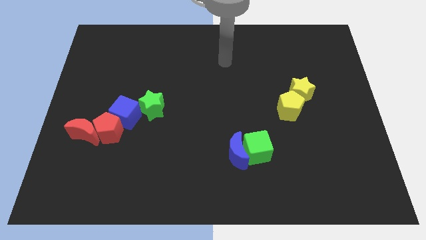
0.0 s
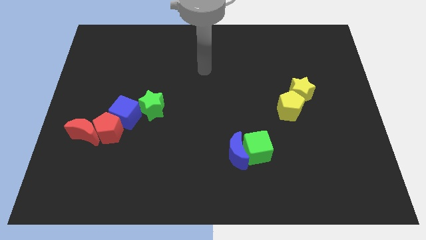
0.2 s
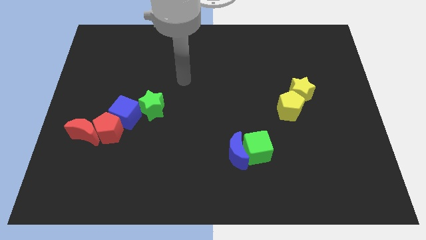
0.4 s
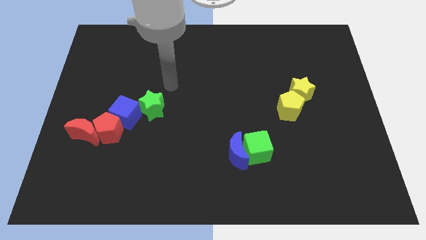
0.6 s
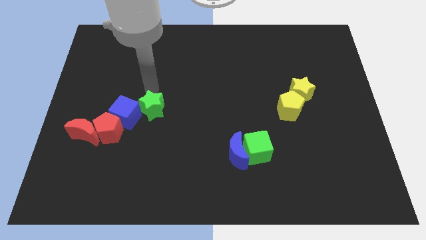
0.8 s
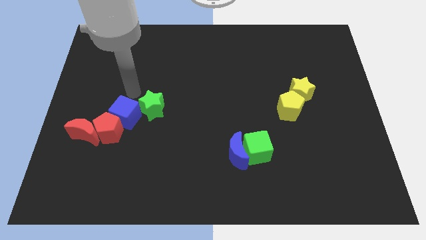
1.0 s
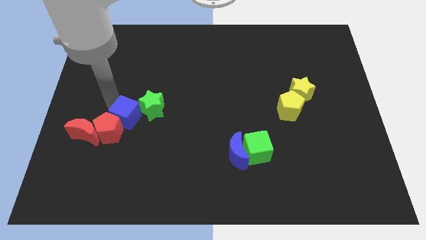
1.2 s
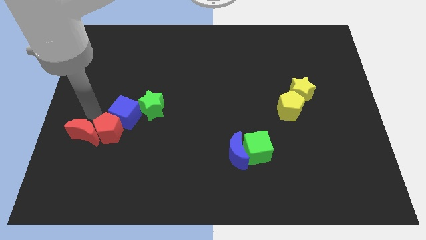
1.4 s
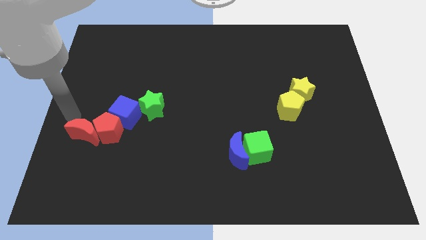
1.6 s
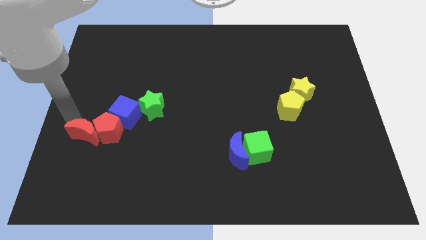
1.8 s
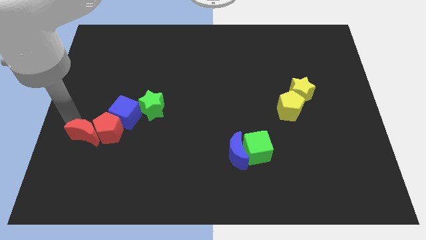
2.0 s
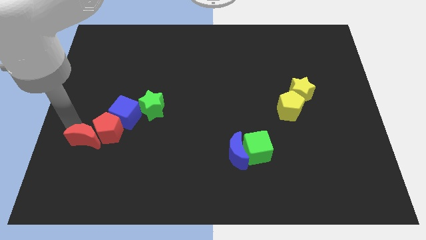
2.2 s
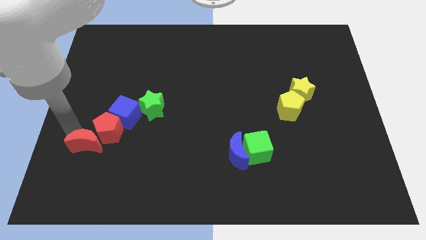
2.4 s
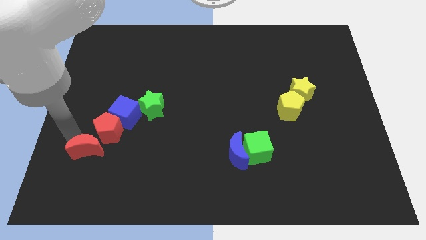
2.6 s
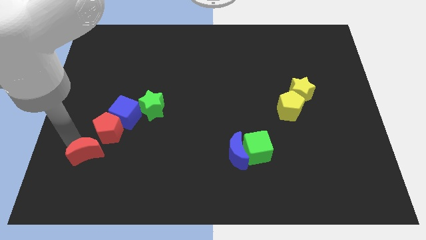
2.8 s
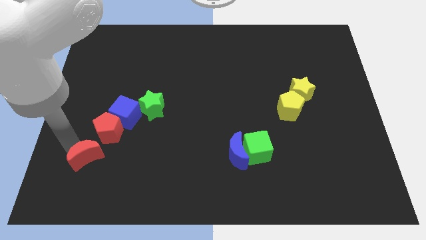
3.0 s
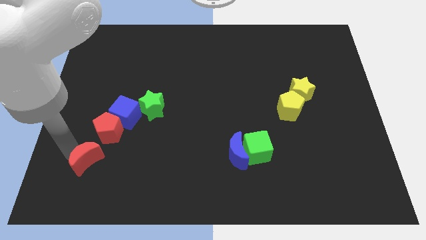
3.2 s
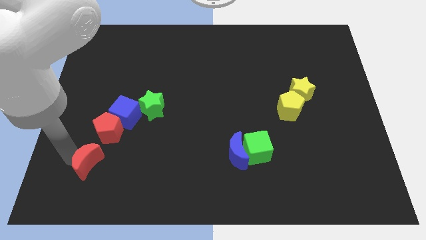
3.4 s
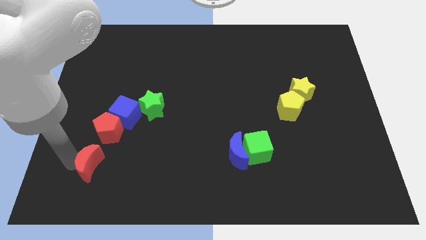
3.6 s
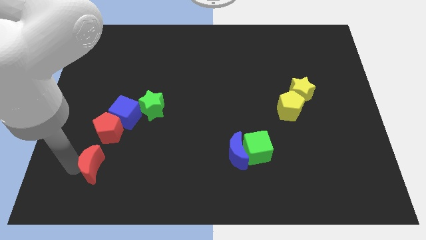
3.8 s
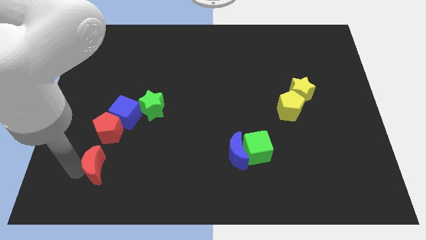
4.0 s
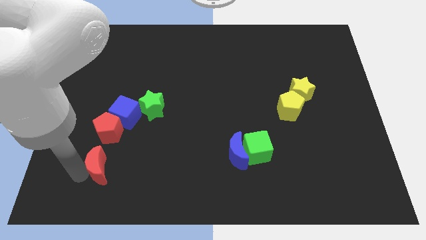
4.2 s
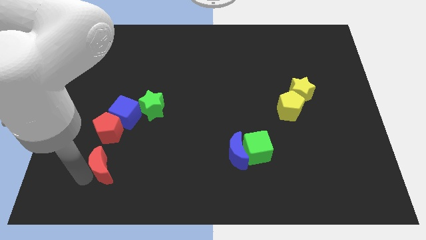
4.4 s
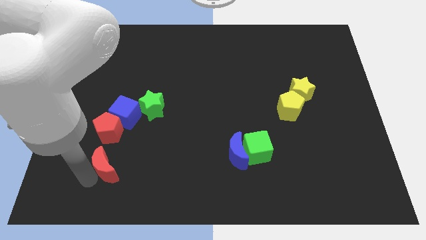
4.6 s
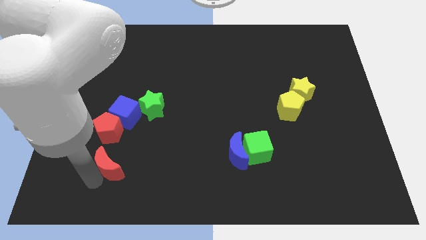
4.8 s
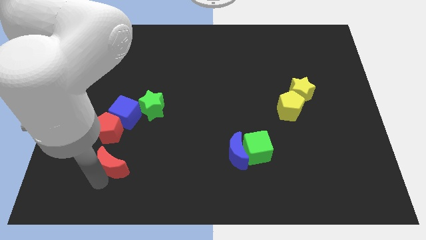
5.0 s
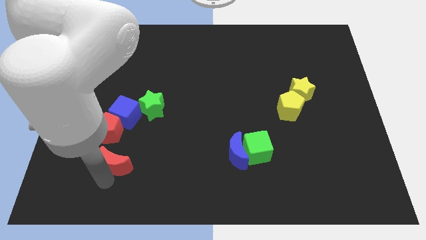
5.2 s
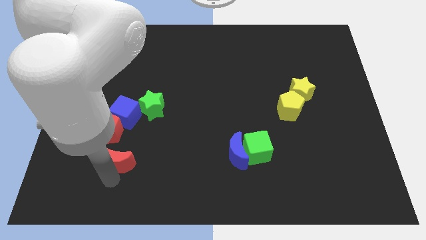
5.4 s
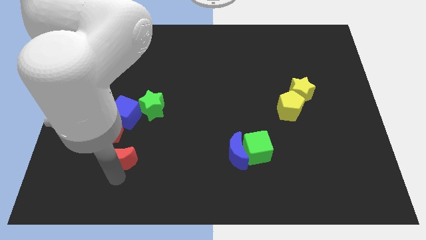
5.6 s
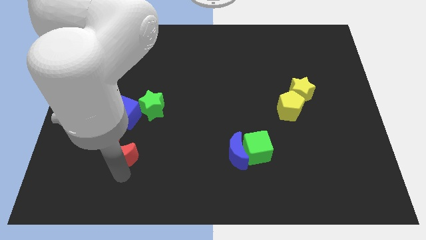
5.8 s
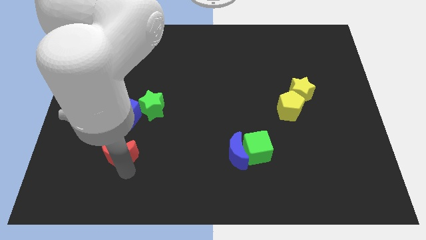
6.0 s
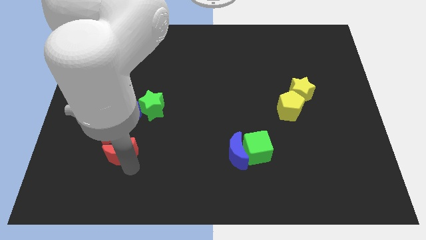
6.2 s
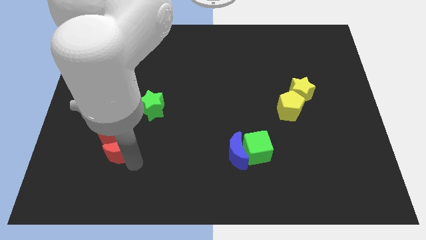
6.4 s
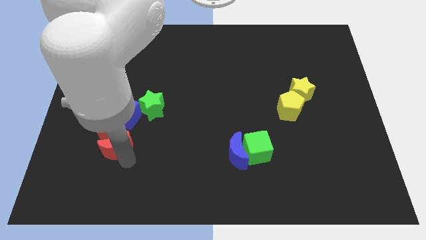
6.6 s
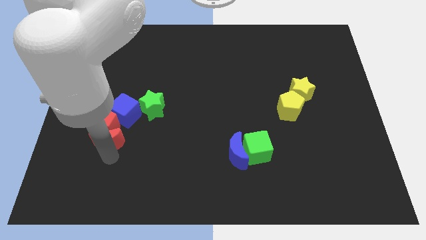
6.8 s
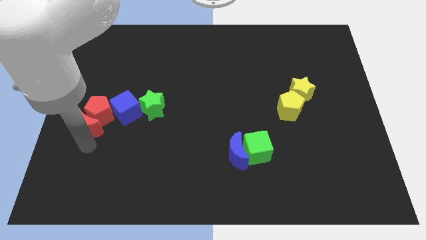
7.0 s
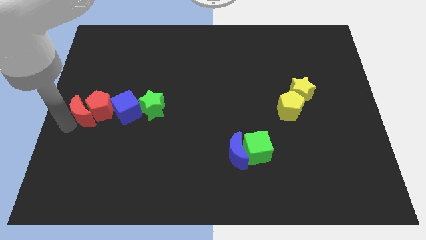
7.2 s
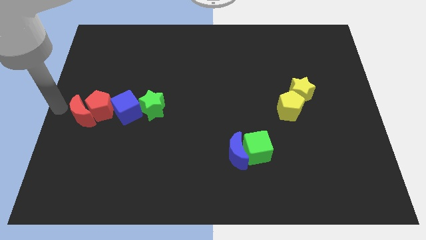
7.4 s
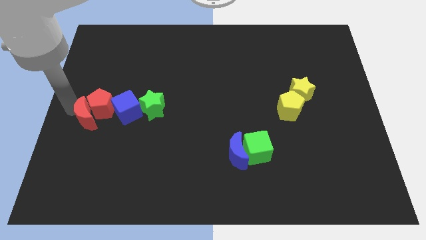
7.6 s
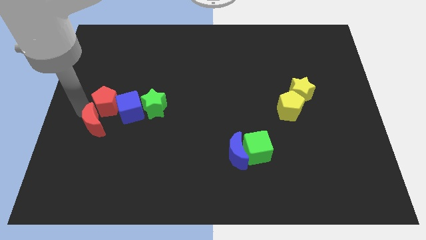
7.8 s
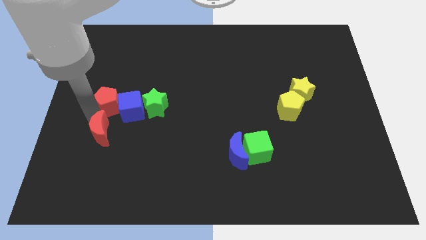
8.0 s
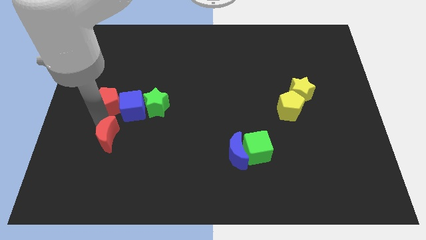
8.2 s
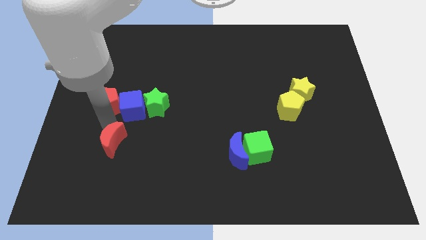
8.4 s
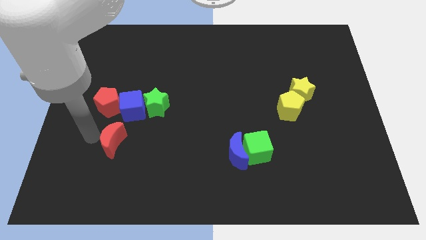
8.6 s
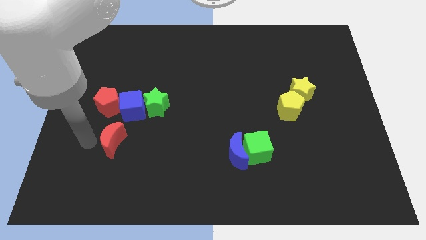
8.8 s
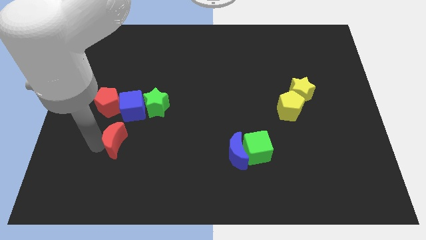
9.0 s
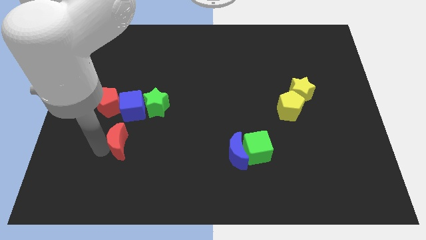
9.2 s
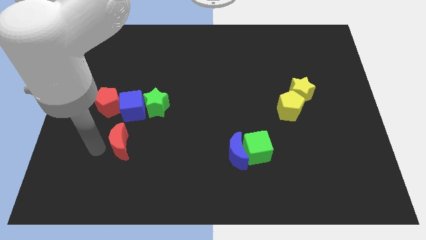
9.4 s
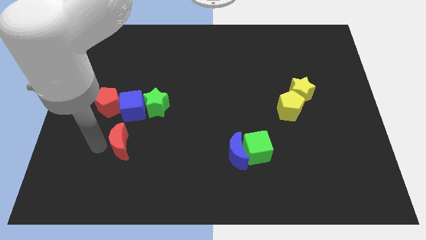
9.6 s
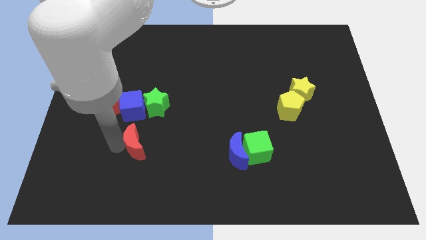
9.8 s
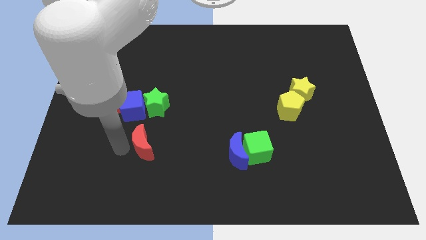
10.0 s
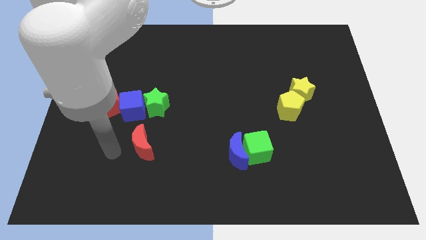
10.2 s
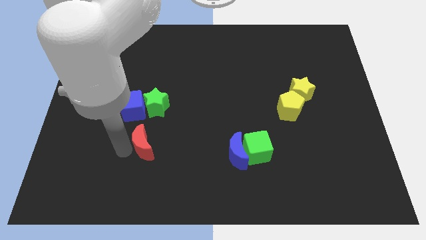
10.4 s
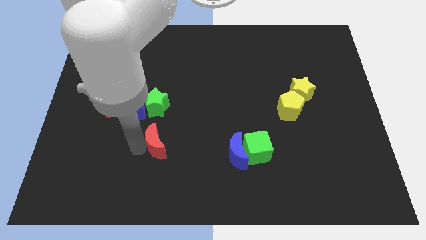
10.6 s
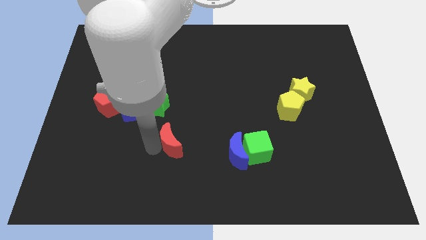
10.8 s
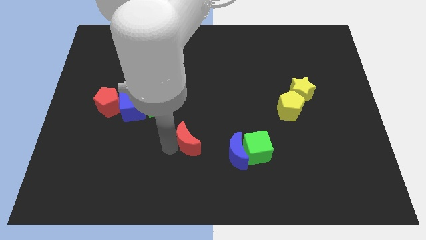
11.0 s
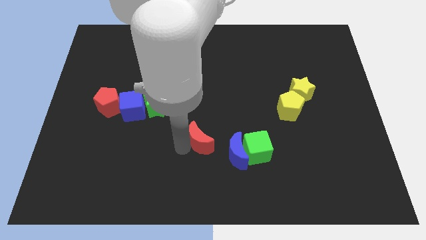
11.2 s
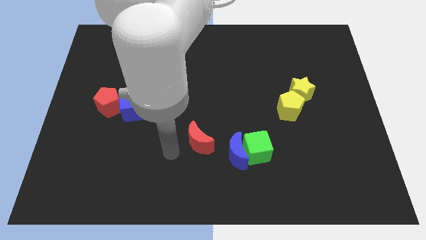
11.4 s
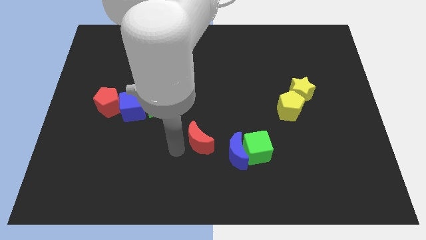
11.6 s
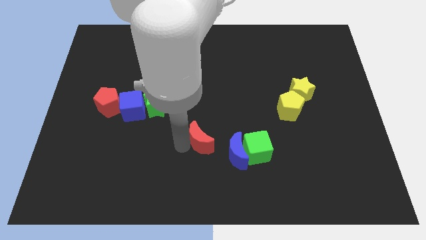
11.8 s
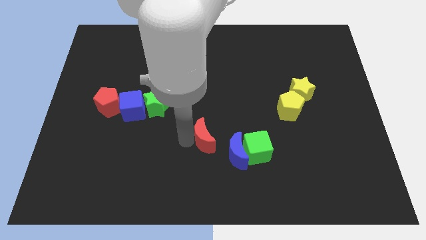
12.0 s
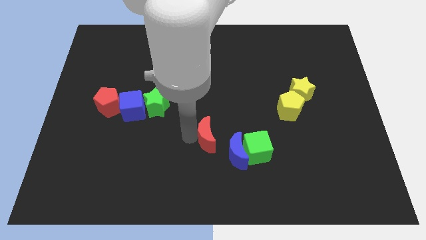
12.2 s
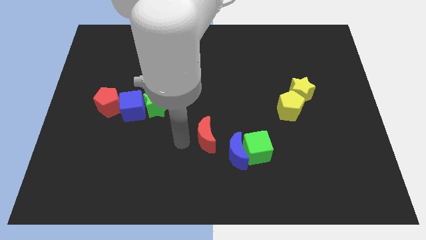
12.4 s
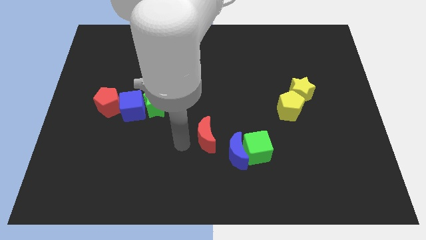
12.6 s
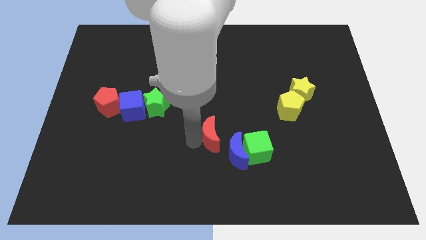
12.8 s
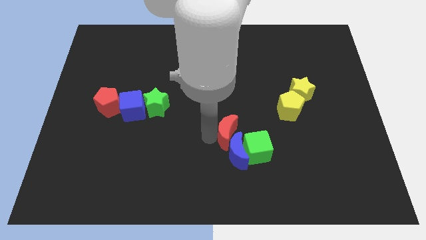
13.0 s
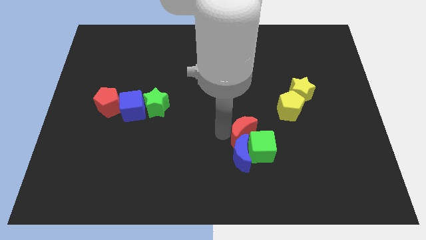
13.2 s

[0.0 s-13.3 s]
put the red moon towards the green cube

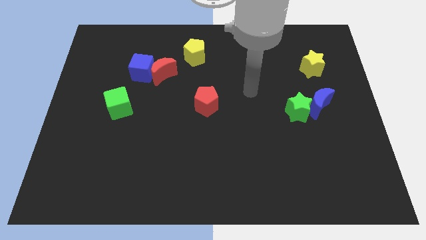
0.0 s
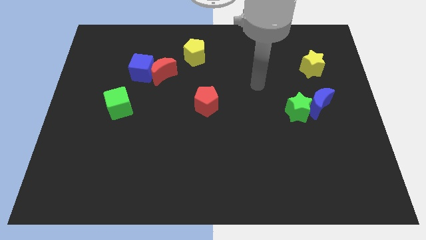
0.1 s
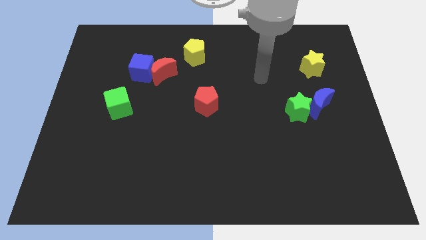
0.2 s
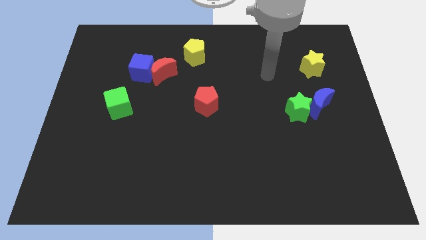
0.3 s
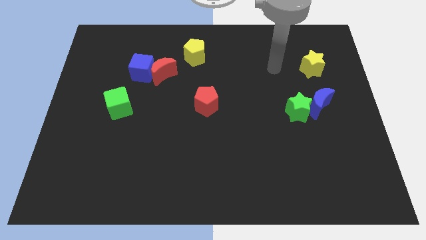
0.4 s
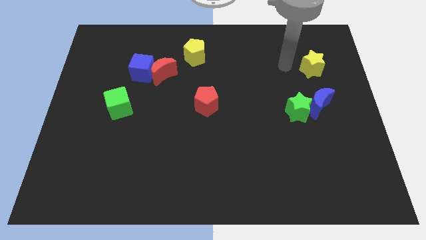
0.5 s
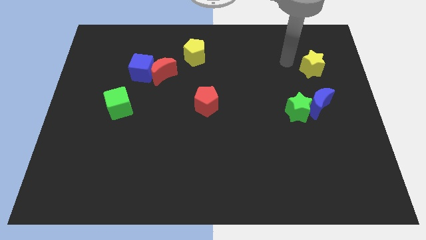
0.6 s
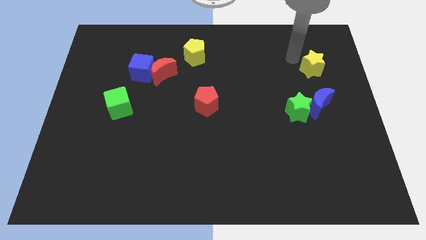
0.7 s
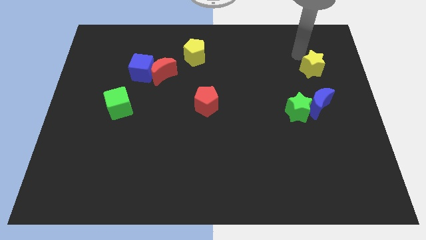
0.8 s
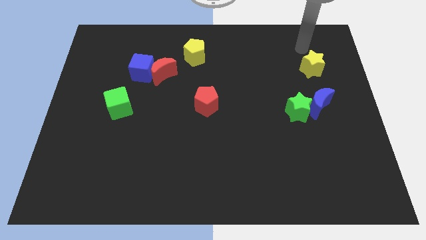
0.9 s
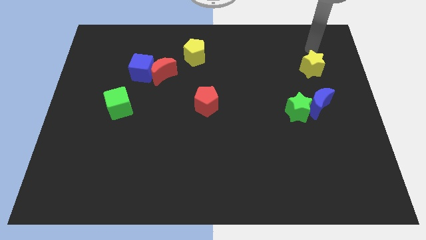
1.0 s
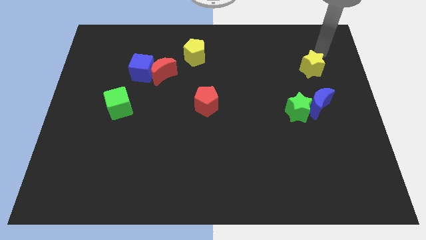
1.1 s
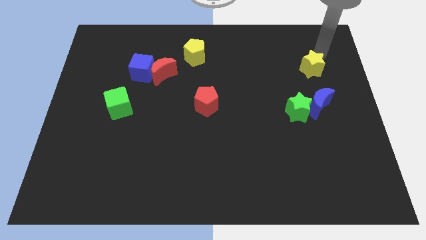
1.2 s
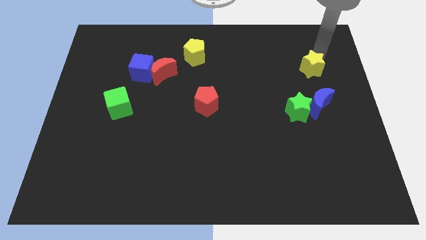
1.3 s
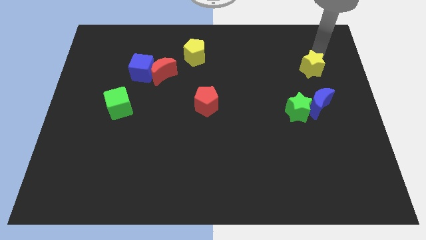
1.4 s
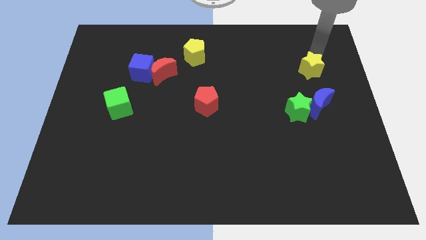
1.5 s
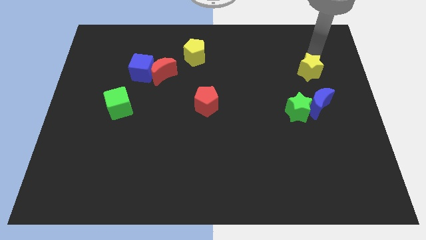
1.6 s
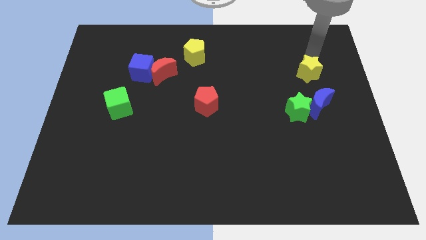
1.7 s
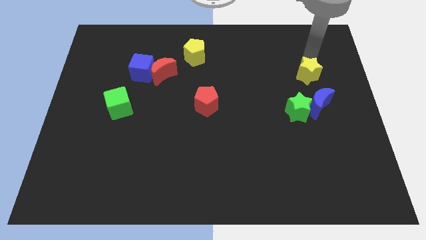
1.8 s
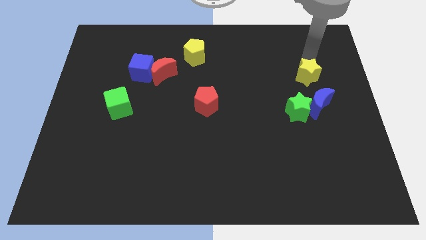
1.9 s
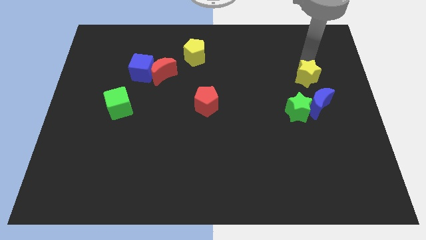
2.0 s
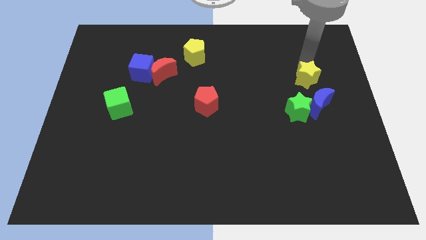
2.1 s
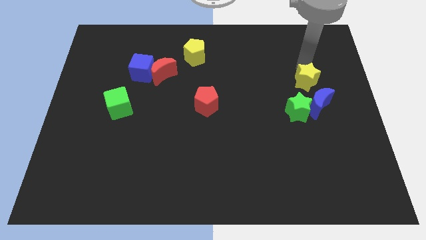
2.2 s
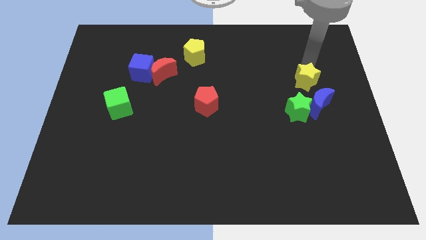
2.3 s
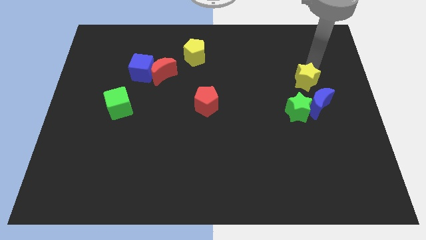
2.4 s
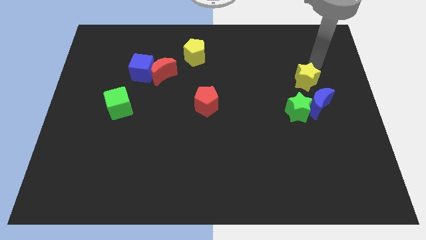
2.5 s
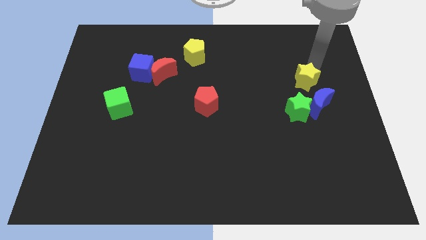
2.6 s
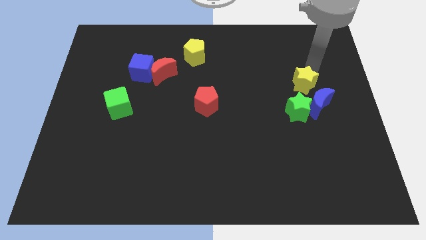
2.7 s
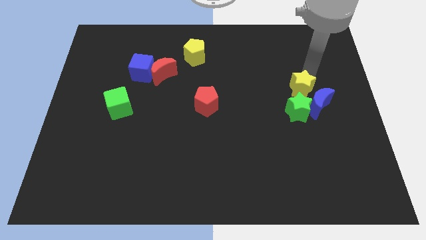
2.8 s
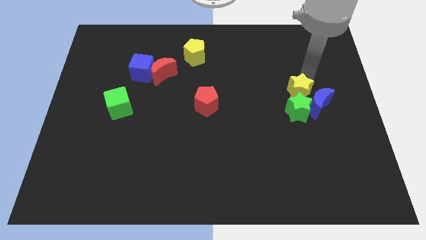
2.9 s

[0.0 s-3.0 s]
slide the yellow star next to the green star
